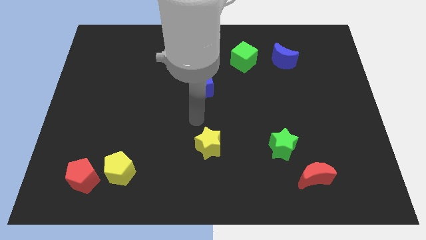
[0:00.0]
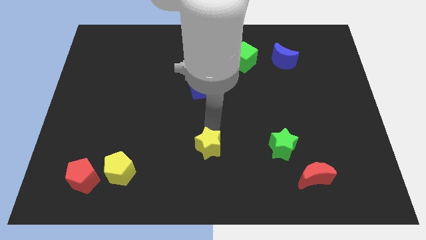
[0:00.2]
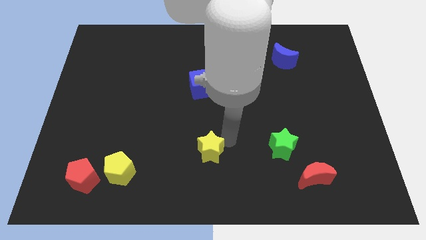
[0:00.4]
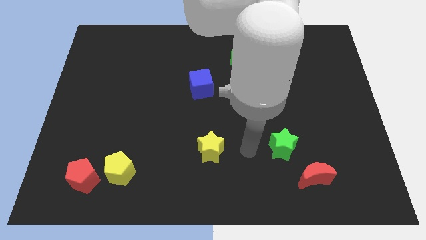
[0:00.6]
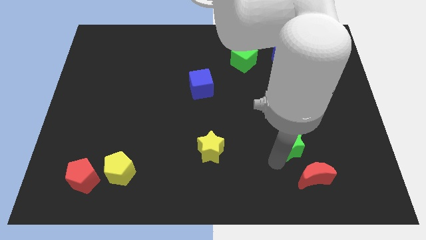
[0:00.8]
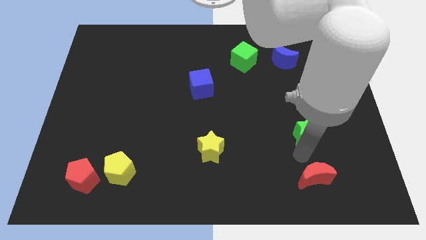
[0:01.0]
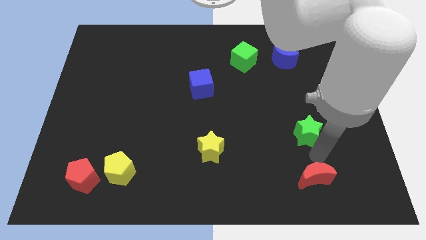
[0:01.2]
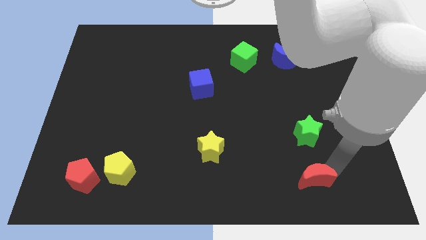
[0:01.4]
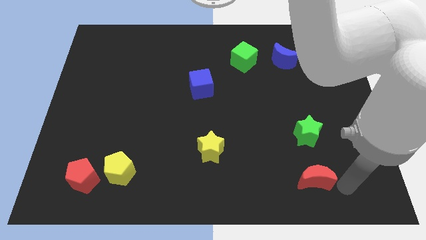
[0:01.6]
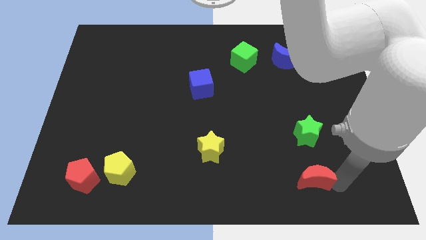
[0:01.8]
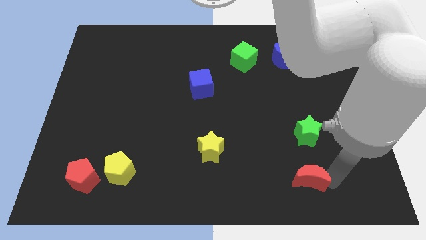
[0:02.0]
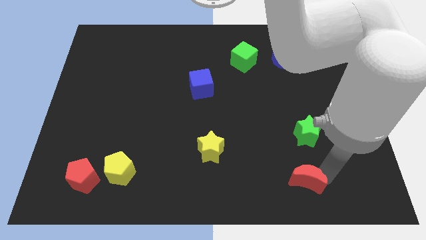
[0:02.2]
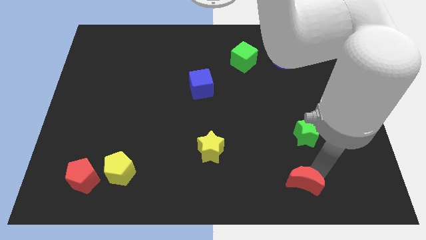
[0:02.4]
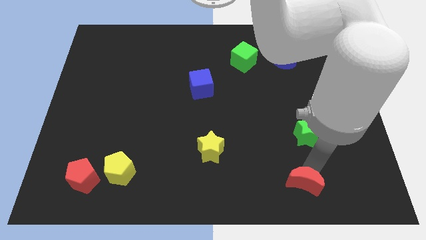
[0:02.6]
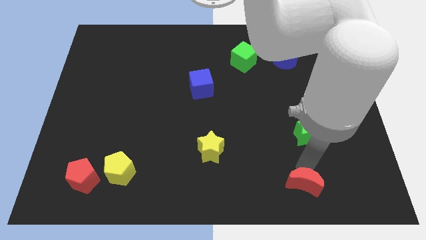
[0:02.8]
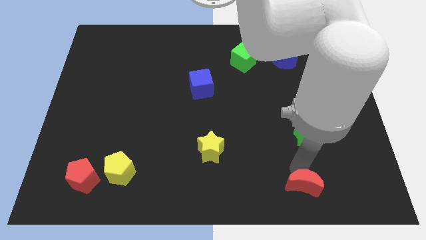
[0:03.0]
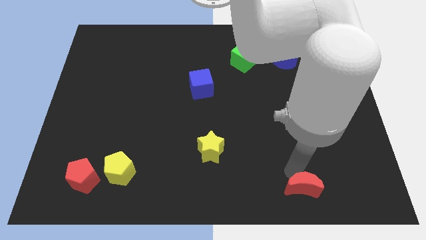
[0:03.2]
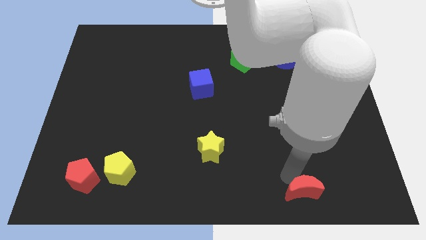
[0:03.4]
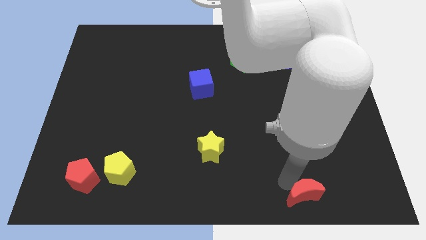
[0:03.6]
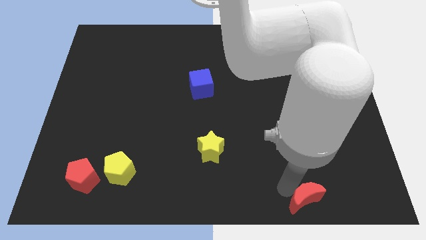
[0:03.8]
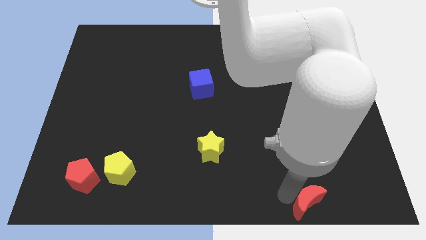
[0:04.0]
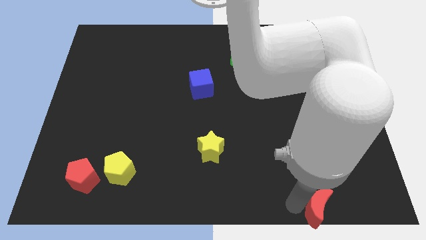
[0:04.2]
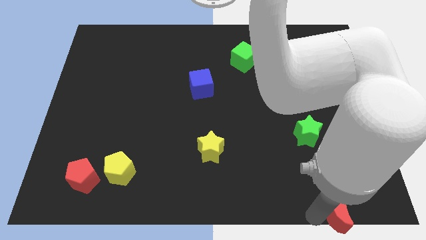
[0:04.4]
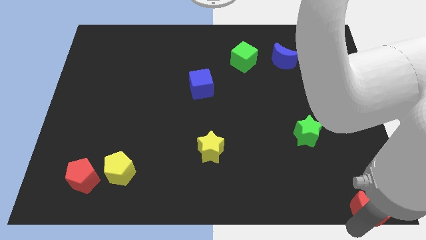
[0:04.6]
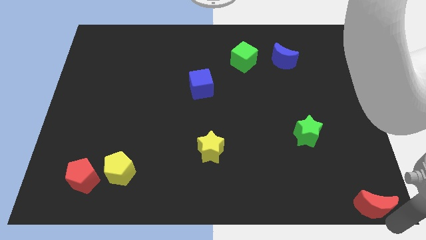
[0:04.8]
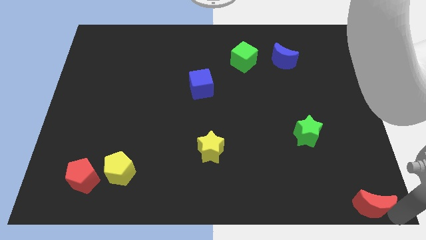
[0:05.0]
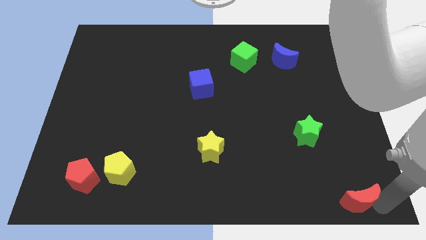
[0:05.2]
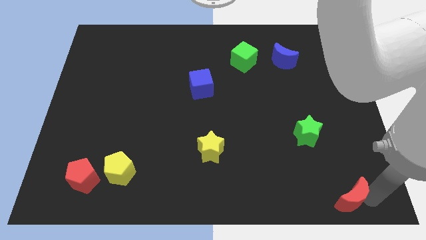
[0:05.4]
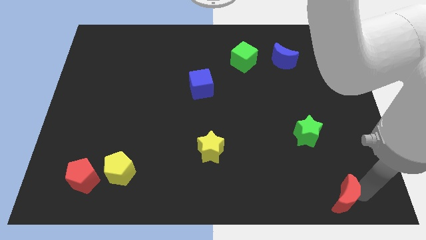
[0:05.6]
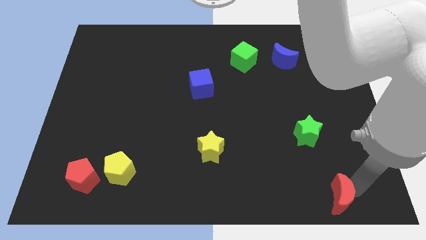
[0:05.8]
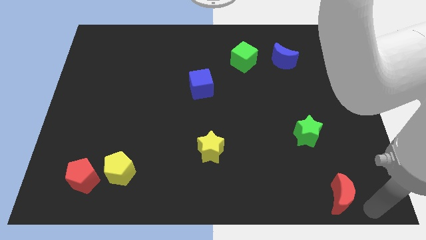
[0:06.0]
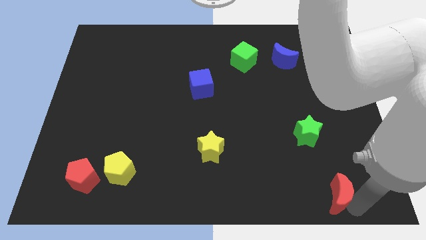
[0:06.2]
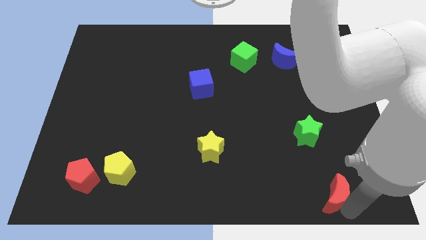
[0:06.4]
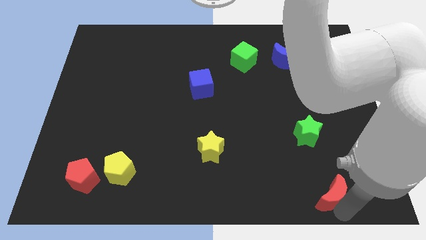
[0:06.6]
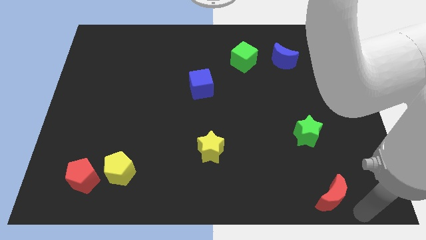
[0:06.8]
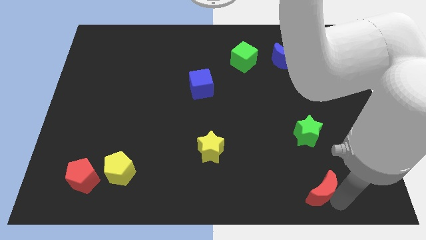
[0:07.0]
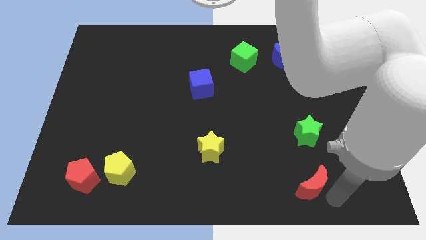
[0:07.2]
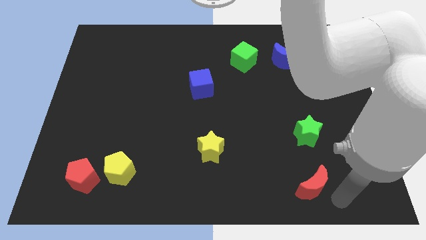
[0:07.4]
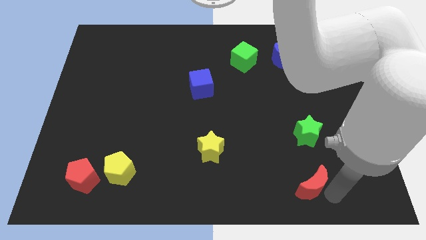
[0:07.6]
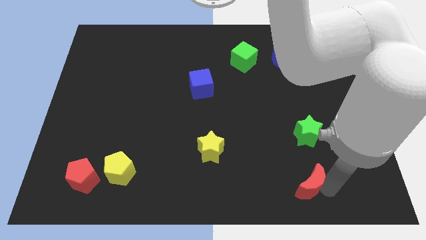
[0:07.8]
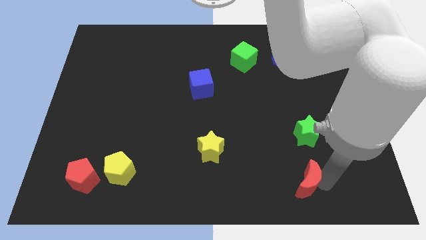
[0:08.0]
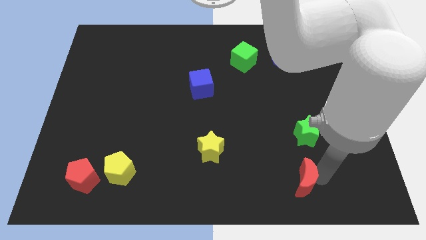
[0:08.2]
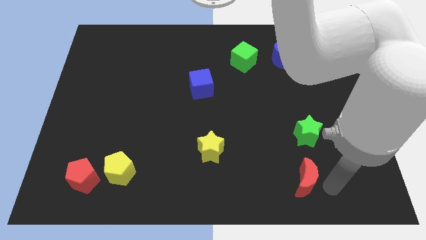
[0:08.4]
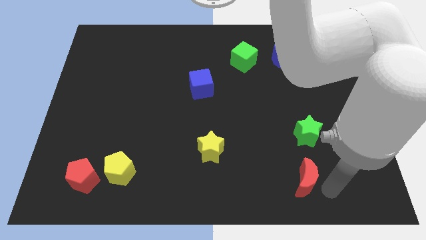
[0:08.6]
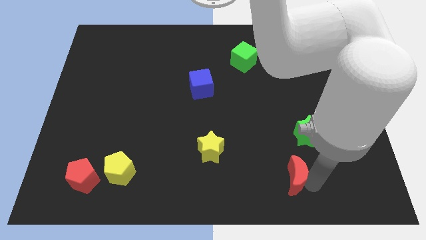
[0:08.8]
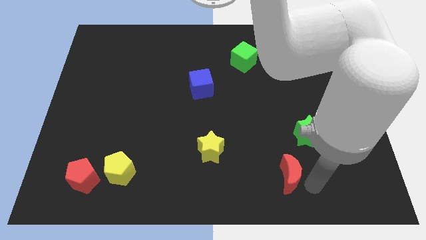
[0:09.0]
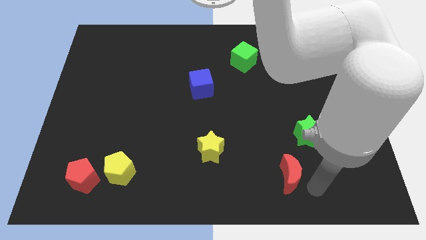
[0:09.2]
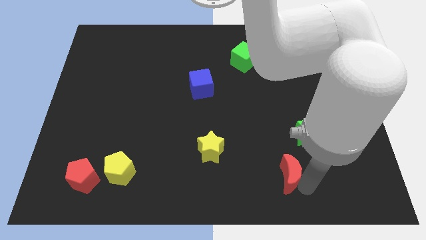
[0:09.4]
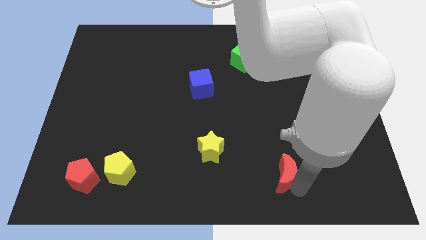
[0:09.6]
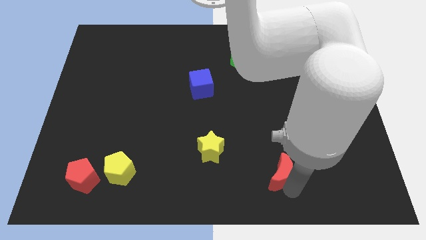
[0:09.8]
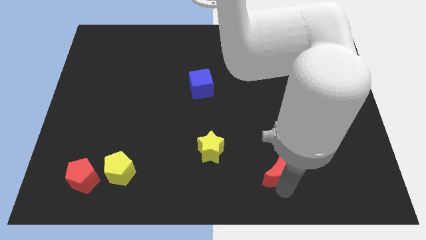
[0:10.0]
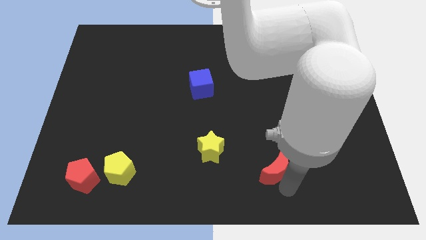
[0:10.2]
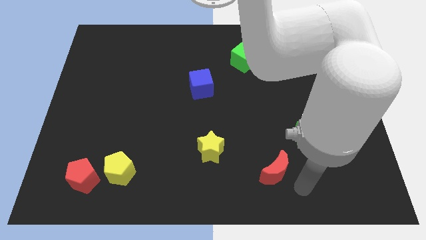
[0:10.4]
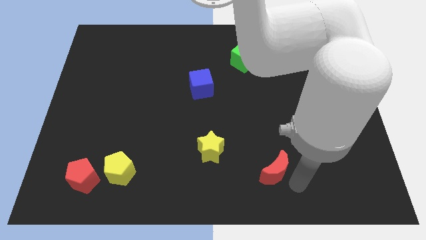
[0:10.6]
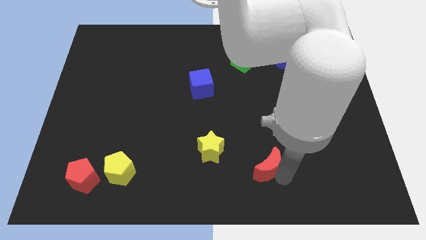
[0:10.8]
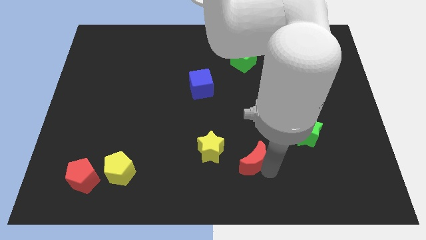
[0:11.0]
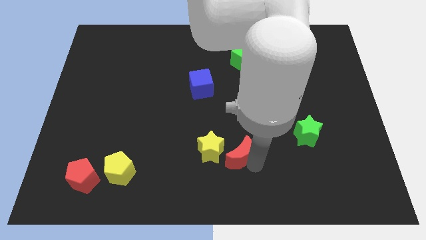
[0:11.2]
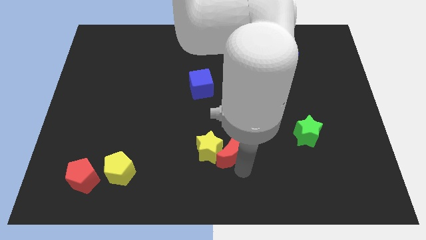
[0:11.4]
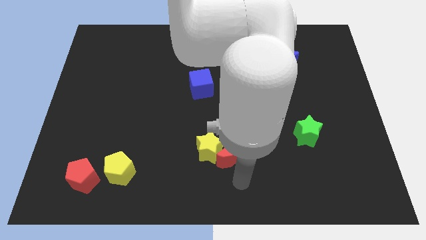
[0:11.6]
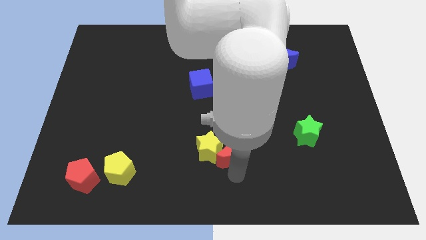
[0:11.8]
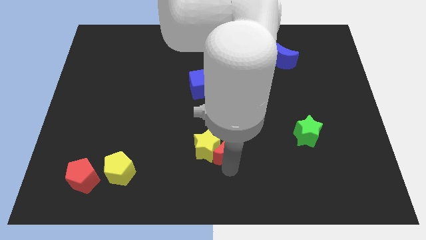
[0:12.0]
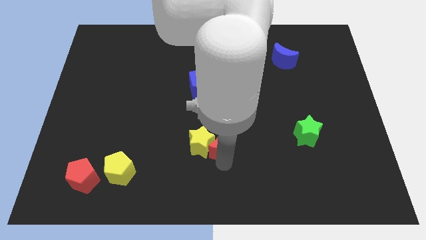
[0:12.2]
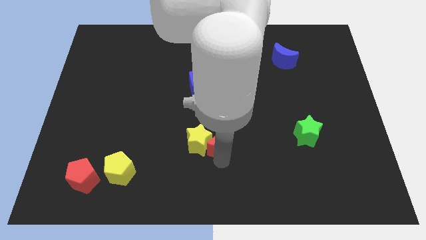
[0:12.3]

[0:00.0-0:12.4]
slide the red moon to the middle
